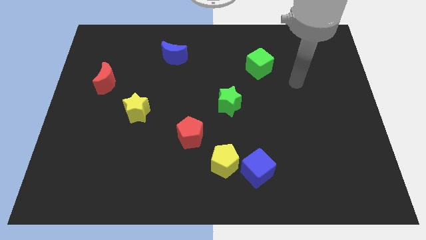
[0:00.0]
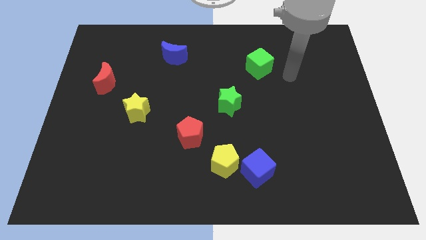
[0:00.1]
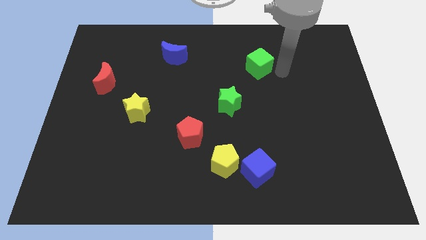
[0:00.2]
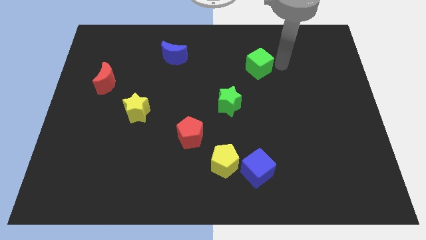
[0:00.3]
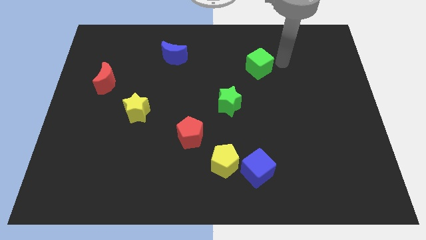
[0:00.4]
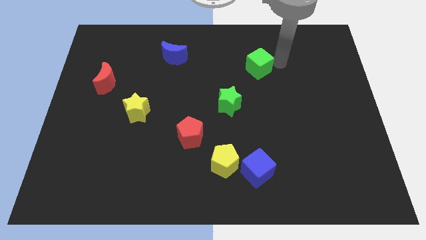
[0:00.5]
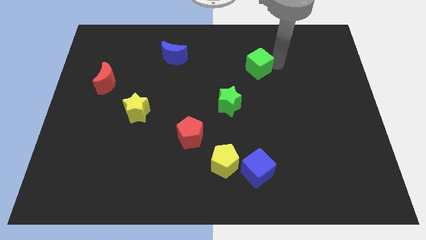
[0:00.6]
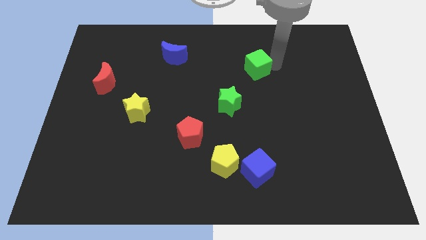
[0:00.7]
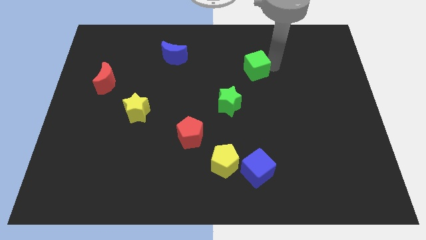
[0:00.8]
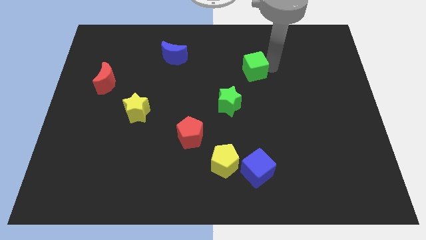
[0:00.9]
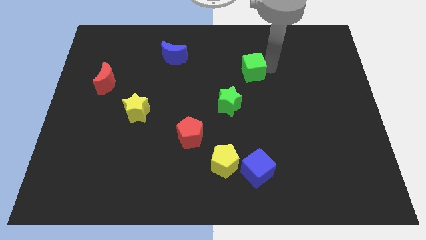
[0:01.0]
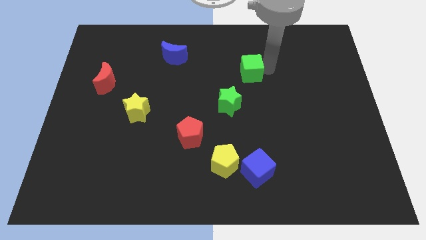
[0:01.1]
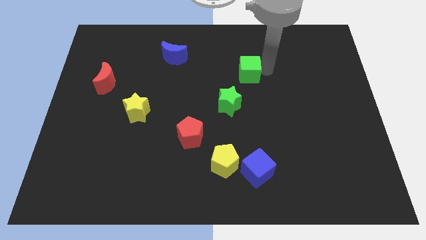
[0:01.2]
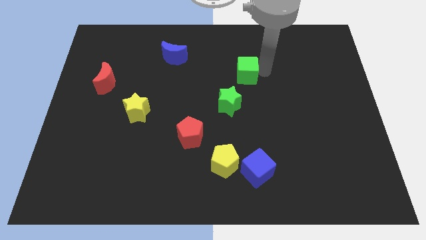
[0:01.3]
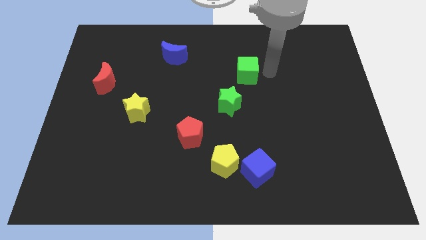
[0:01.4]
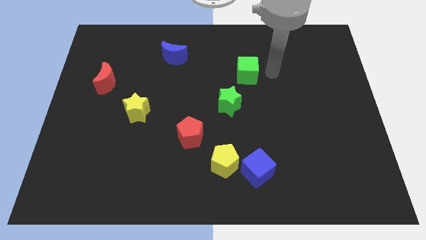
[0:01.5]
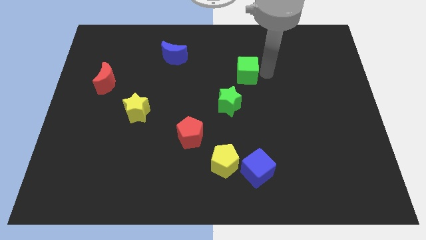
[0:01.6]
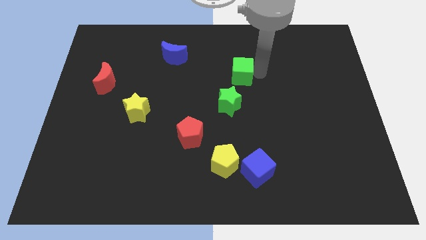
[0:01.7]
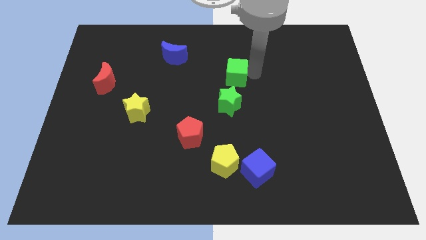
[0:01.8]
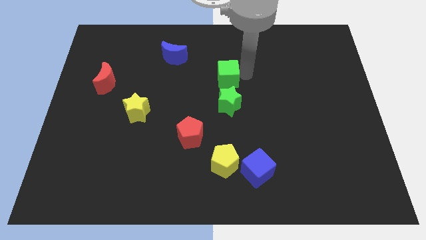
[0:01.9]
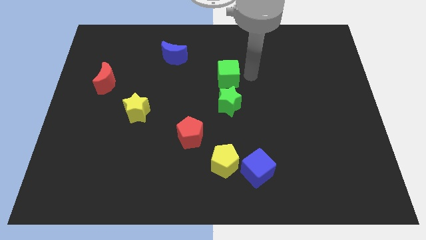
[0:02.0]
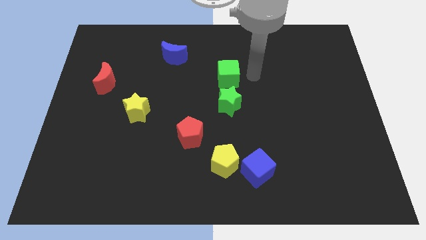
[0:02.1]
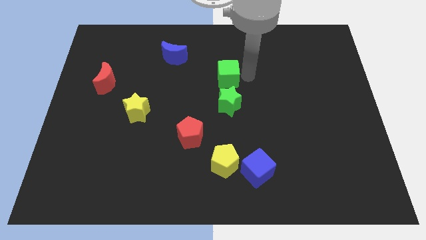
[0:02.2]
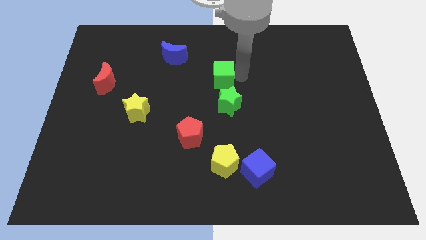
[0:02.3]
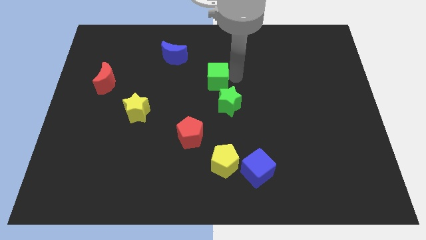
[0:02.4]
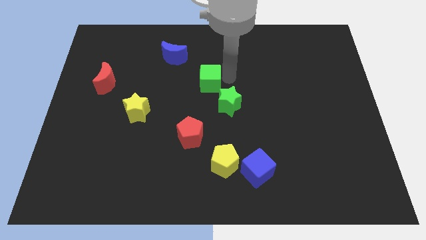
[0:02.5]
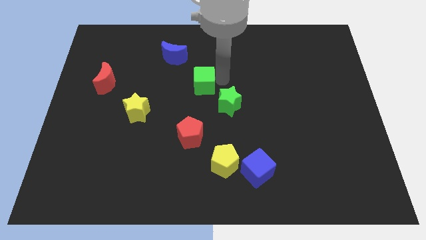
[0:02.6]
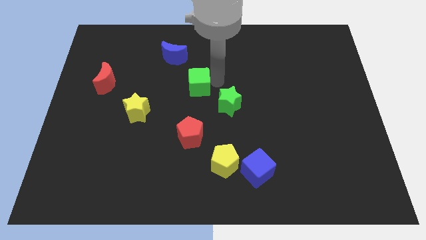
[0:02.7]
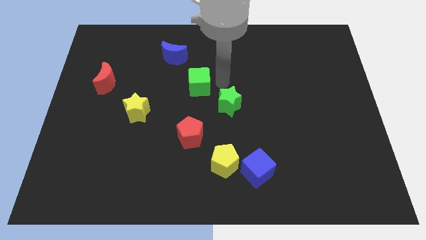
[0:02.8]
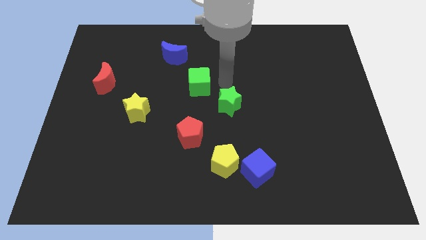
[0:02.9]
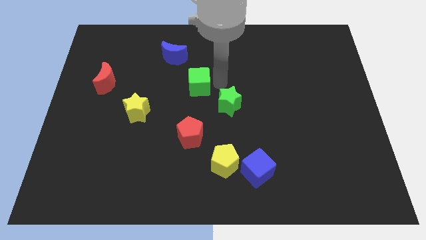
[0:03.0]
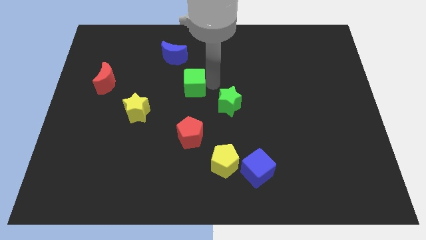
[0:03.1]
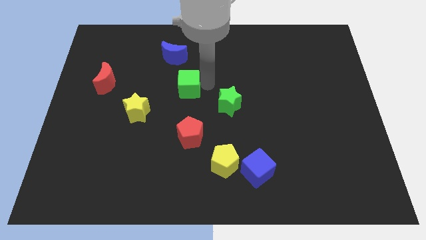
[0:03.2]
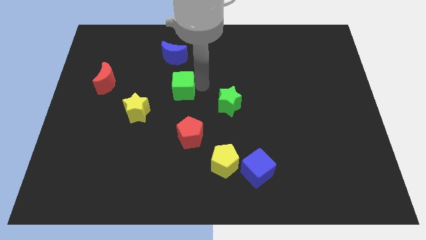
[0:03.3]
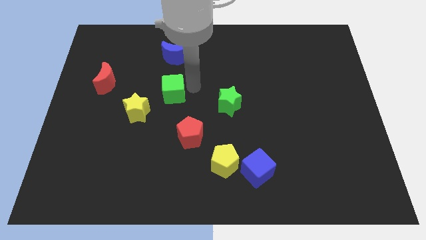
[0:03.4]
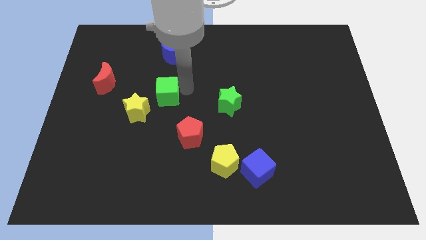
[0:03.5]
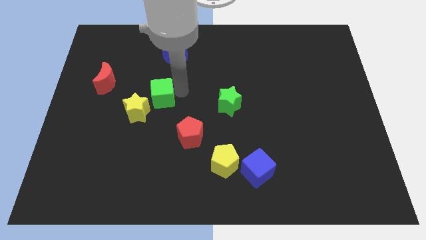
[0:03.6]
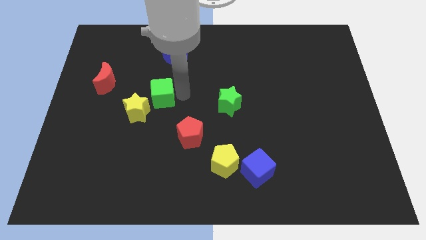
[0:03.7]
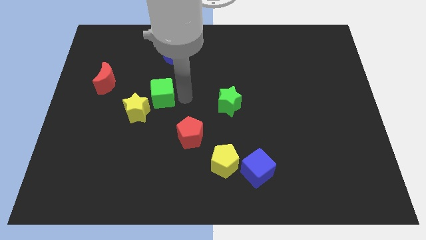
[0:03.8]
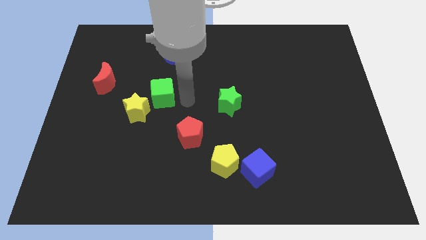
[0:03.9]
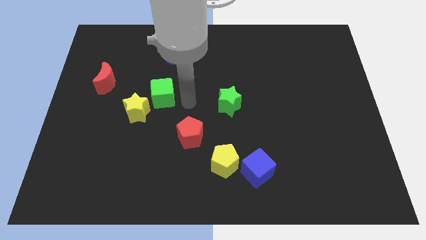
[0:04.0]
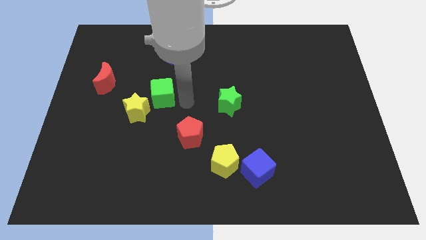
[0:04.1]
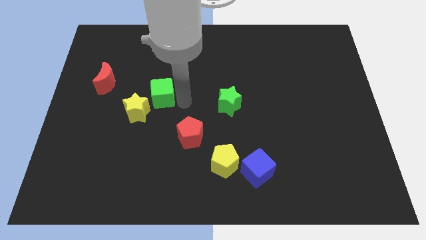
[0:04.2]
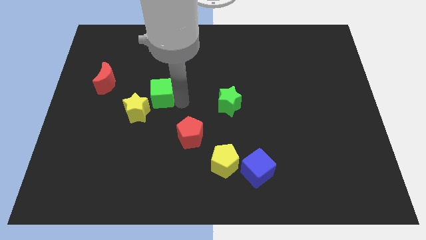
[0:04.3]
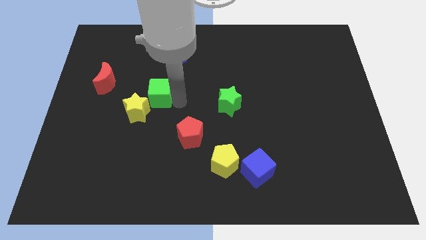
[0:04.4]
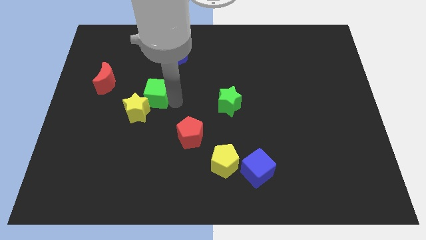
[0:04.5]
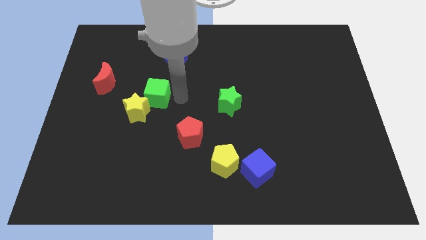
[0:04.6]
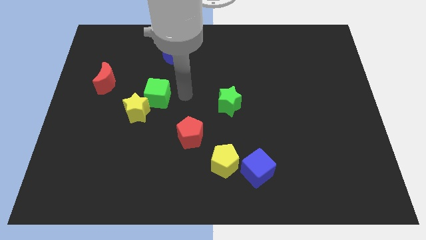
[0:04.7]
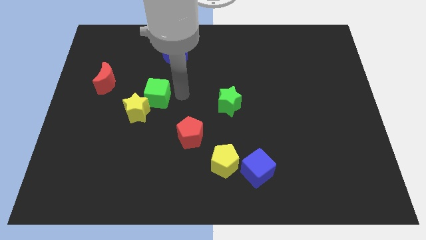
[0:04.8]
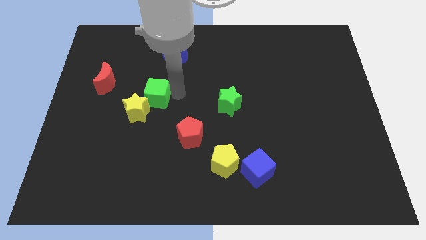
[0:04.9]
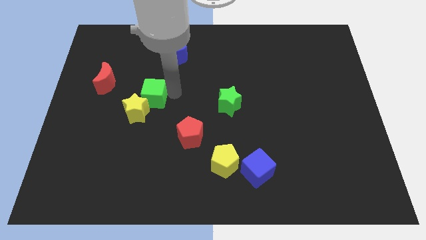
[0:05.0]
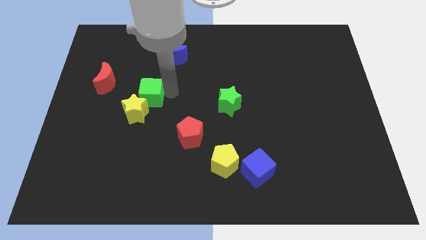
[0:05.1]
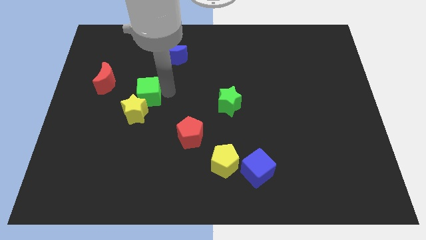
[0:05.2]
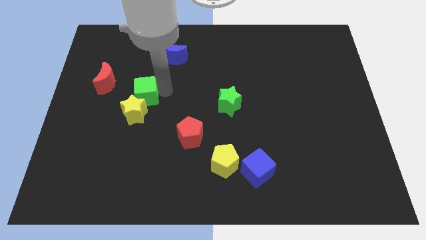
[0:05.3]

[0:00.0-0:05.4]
slide the green cube to the bottom right of the red moon

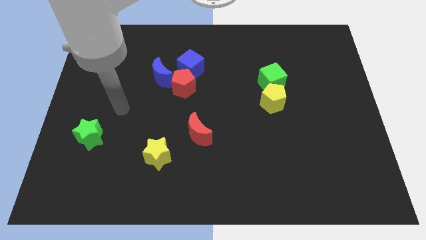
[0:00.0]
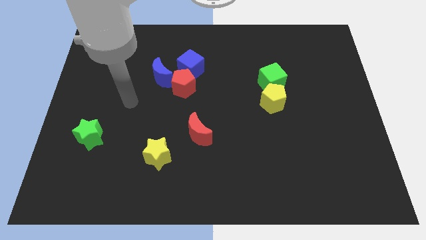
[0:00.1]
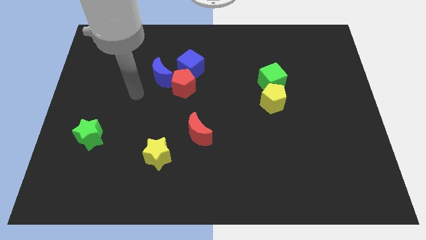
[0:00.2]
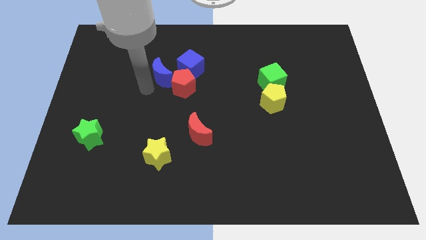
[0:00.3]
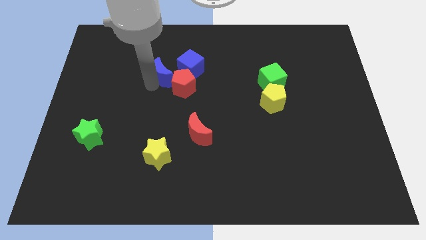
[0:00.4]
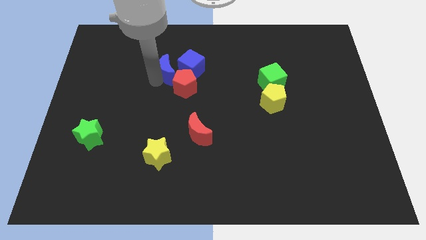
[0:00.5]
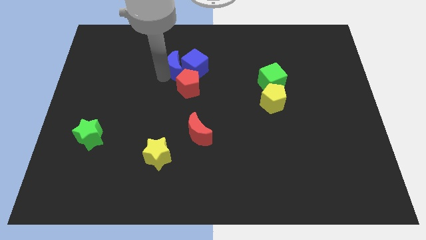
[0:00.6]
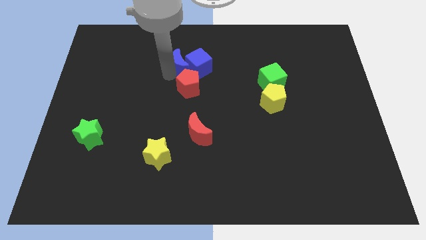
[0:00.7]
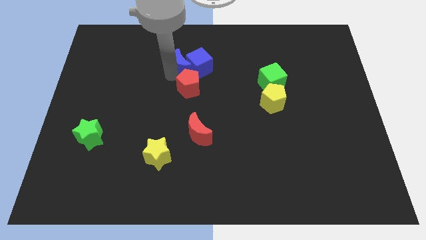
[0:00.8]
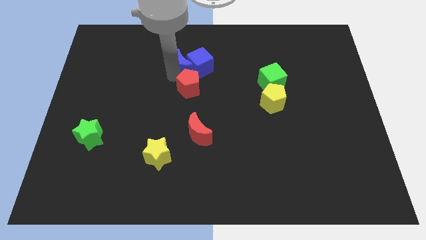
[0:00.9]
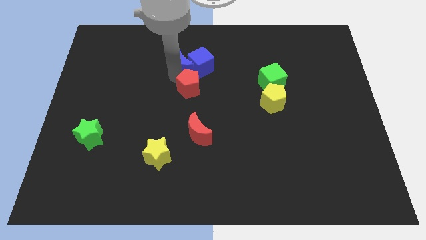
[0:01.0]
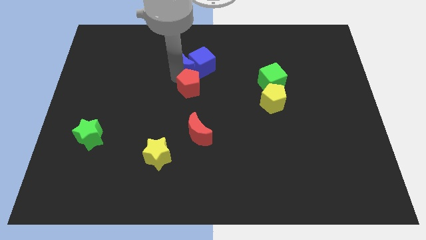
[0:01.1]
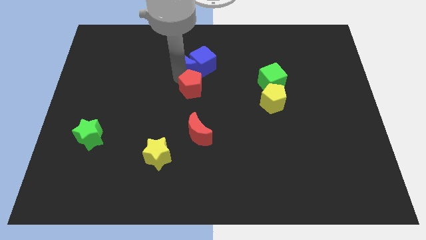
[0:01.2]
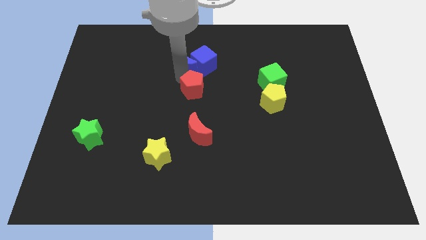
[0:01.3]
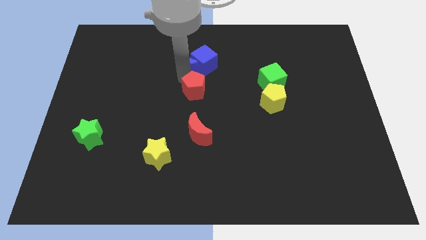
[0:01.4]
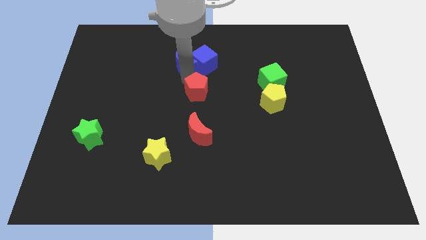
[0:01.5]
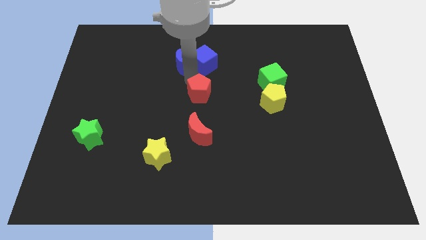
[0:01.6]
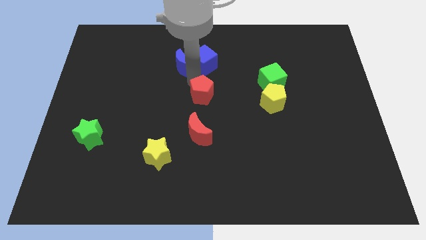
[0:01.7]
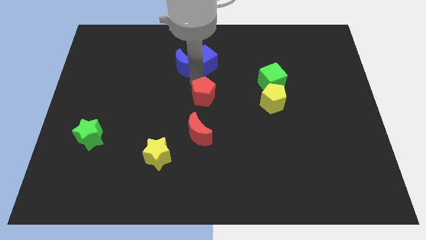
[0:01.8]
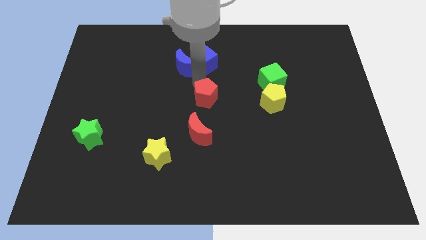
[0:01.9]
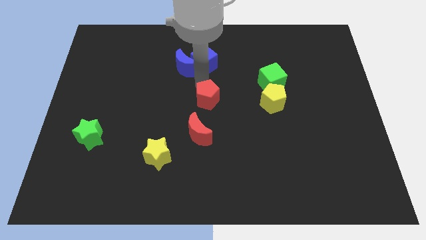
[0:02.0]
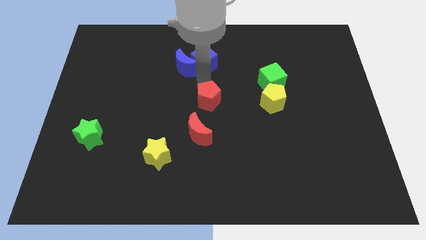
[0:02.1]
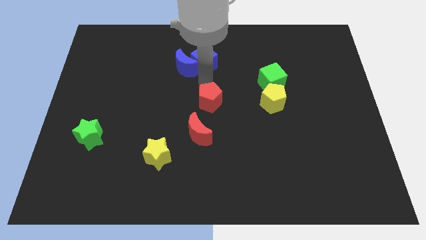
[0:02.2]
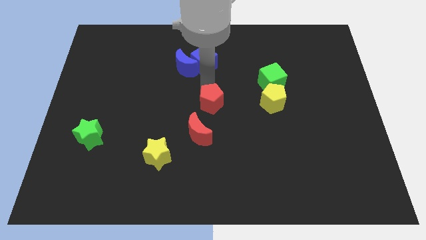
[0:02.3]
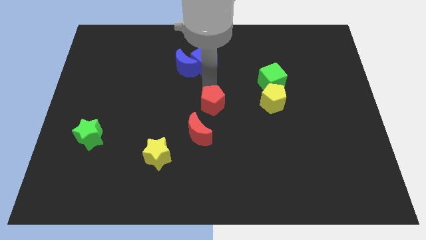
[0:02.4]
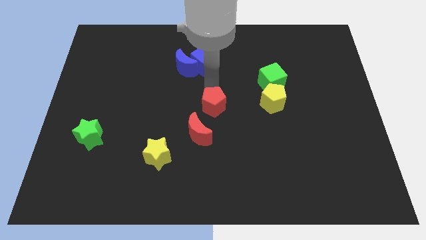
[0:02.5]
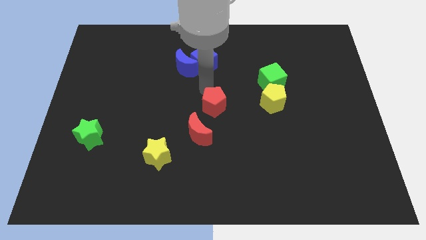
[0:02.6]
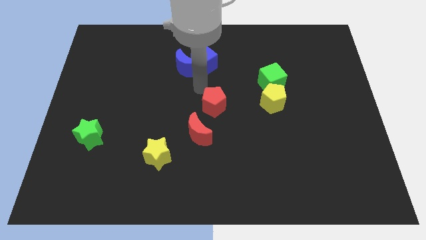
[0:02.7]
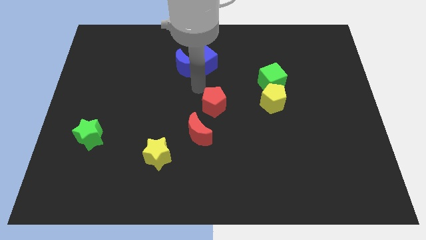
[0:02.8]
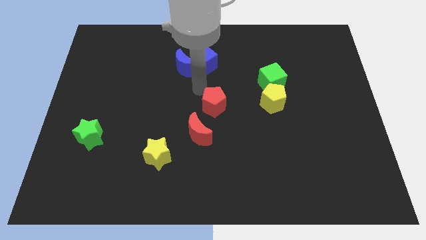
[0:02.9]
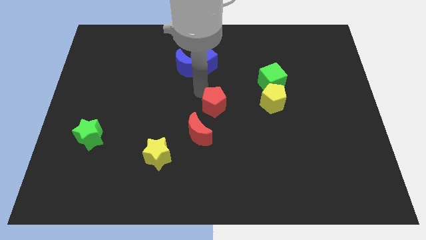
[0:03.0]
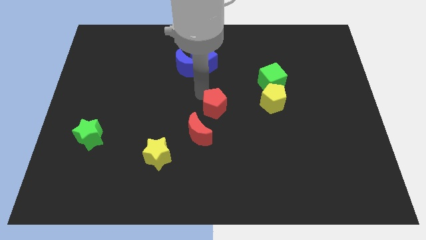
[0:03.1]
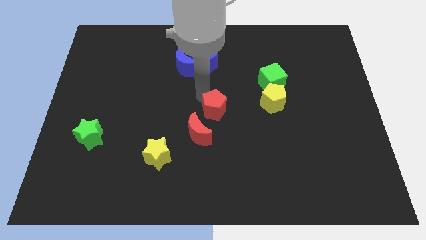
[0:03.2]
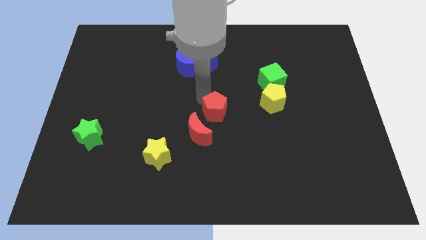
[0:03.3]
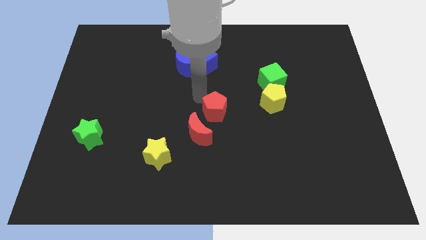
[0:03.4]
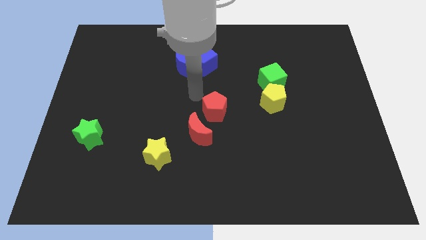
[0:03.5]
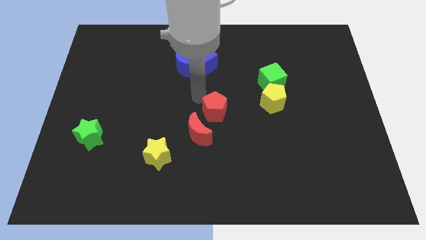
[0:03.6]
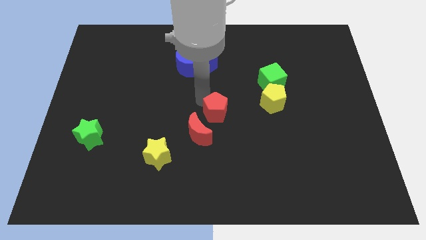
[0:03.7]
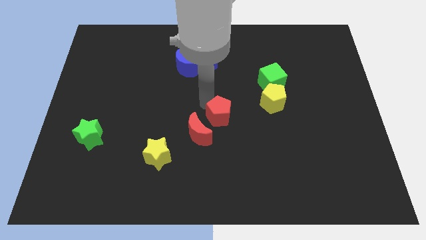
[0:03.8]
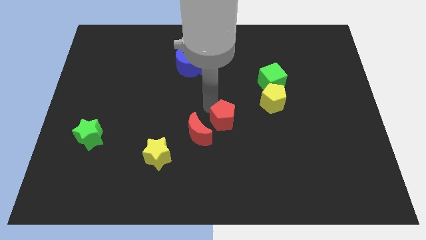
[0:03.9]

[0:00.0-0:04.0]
put the red pentagon to the right side of the red moon
